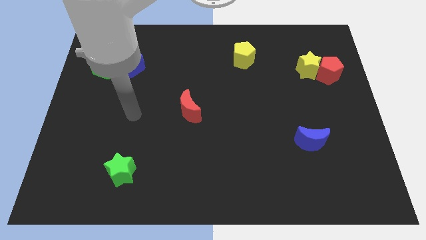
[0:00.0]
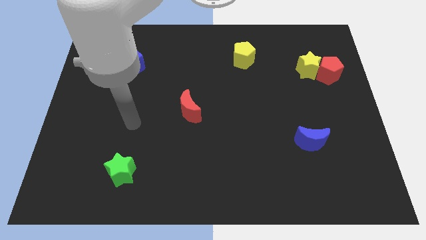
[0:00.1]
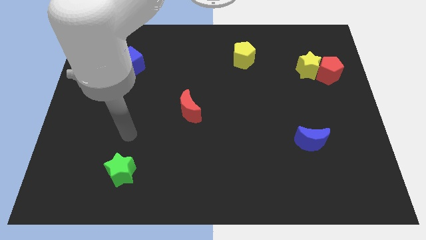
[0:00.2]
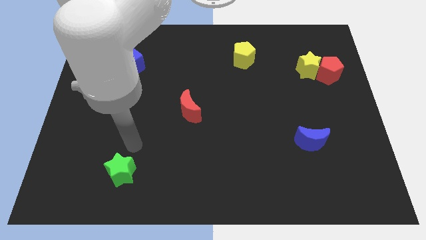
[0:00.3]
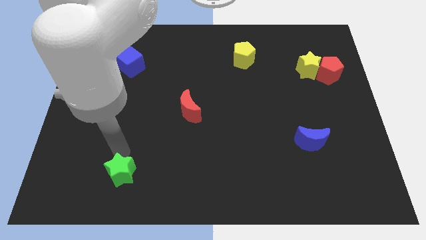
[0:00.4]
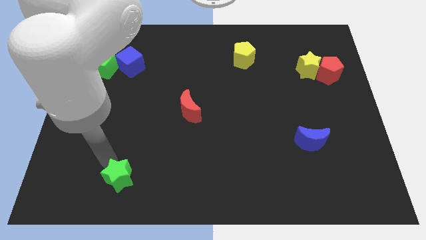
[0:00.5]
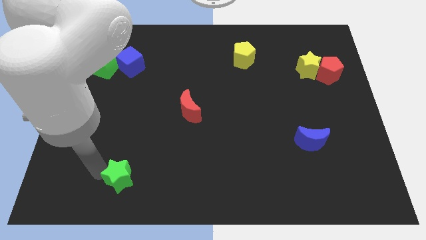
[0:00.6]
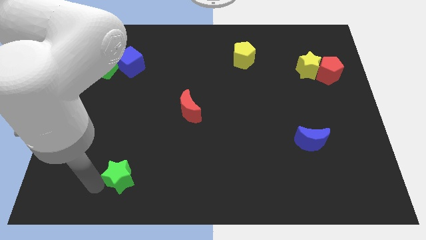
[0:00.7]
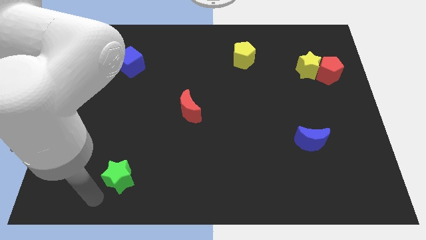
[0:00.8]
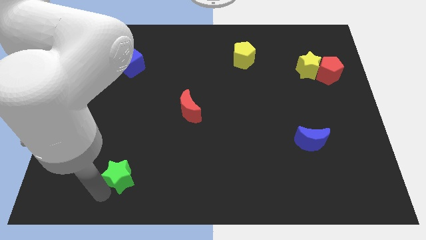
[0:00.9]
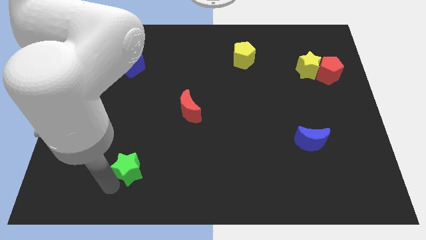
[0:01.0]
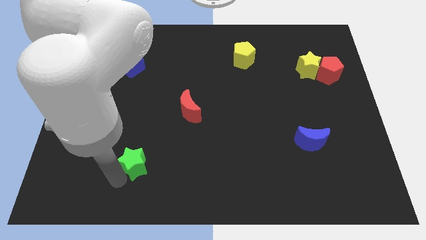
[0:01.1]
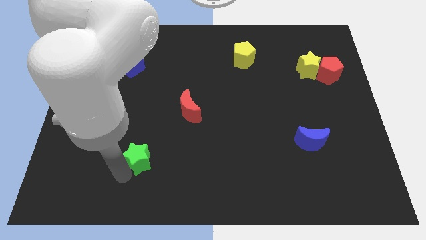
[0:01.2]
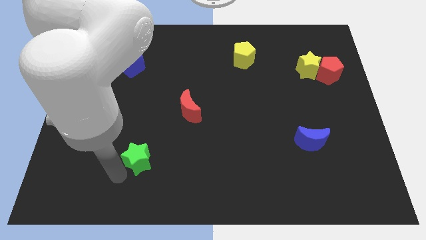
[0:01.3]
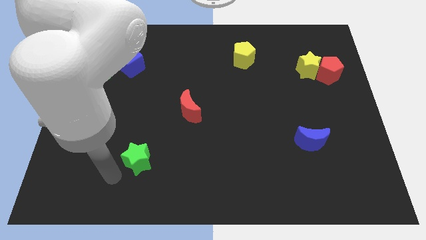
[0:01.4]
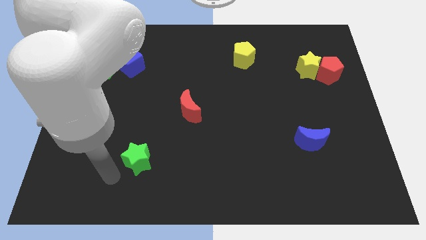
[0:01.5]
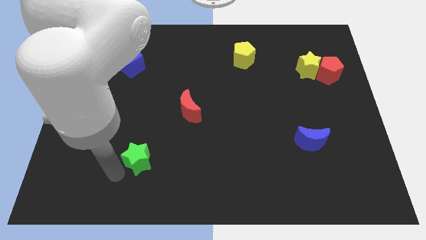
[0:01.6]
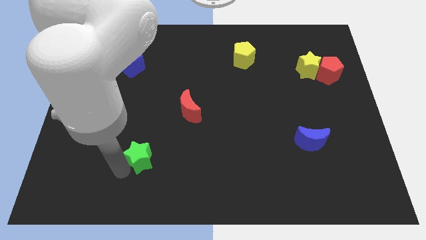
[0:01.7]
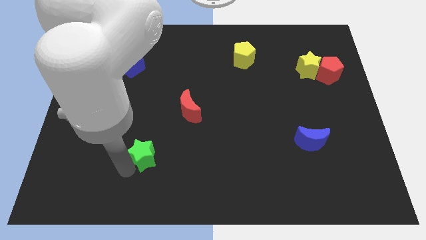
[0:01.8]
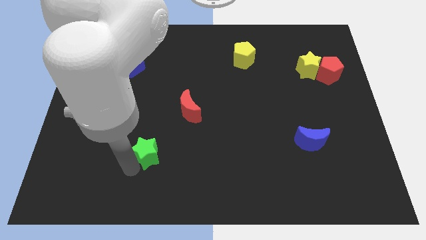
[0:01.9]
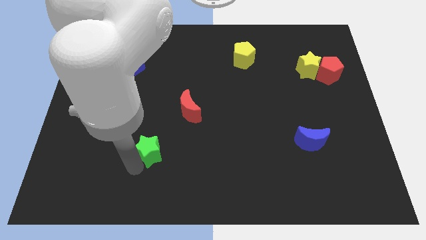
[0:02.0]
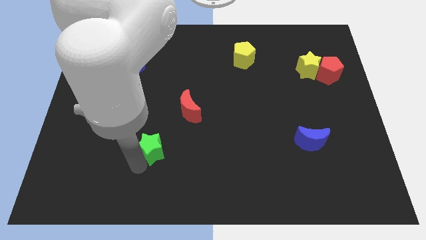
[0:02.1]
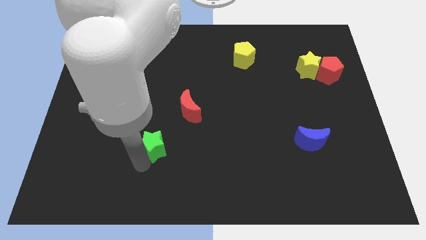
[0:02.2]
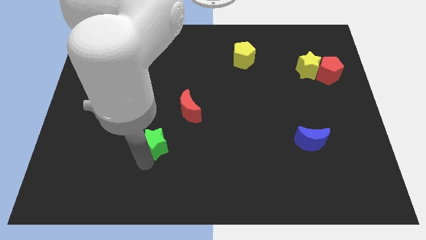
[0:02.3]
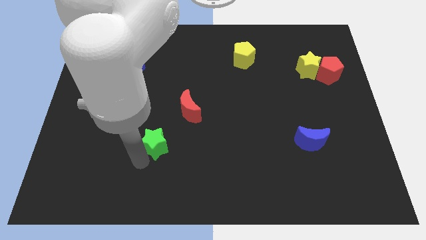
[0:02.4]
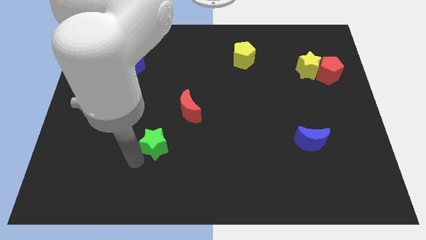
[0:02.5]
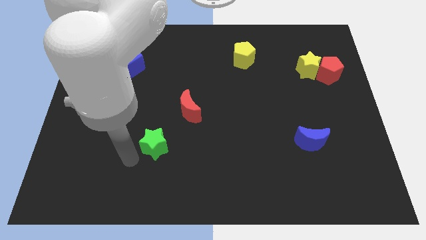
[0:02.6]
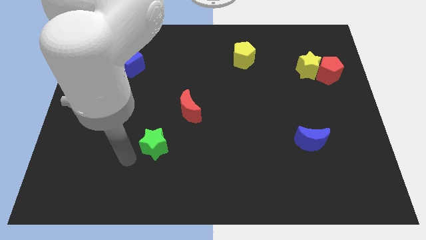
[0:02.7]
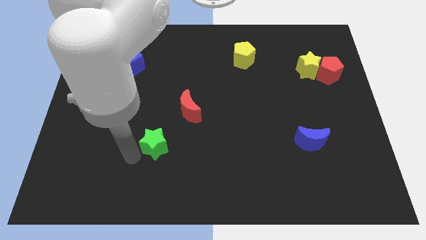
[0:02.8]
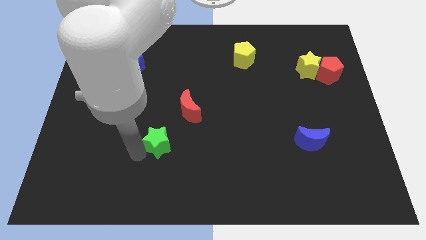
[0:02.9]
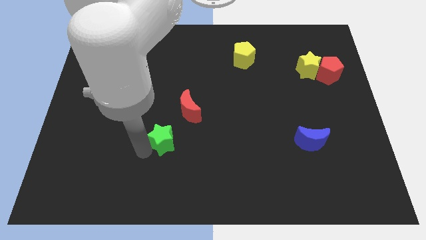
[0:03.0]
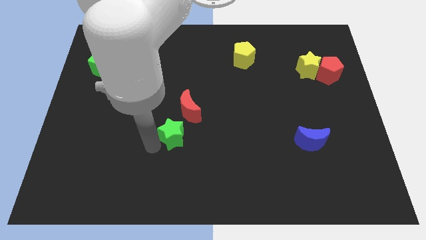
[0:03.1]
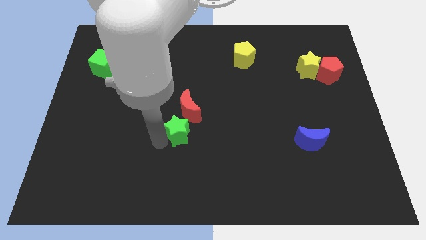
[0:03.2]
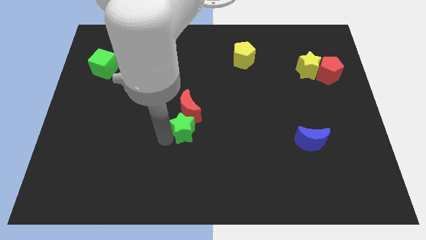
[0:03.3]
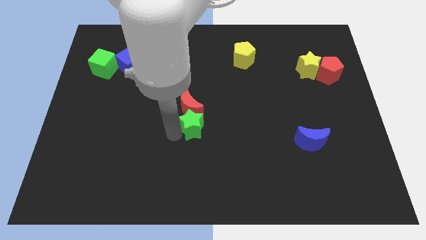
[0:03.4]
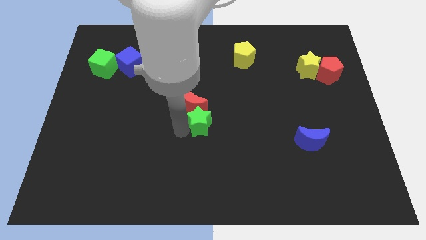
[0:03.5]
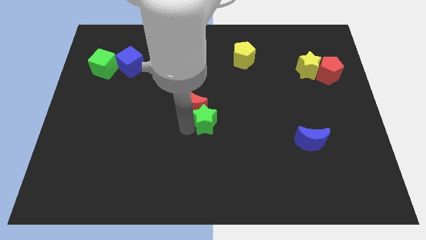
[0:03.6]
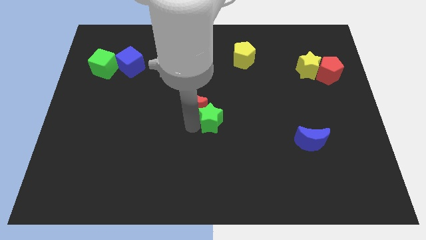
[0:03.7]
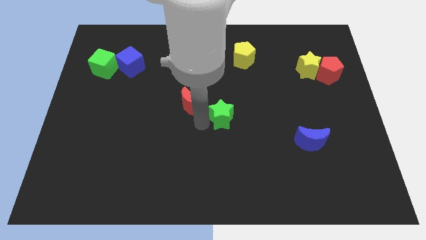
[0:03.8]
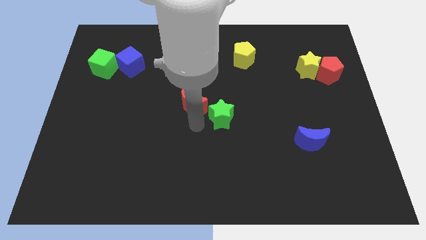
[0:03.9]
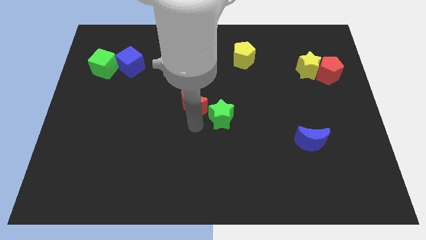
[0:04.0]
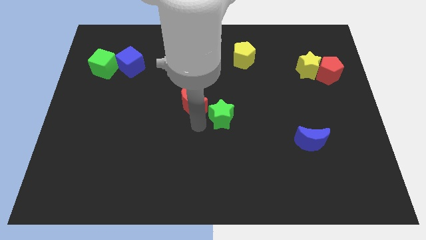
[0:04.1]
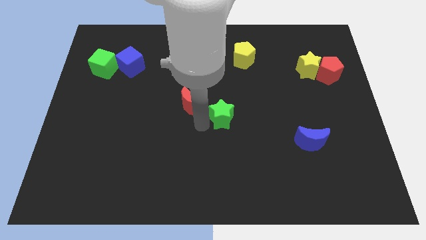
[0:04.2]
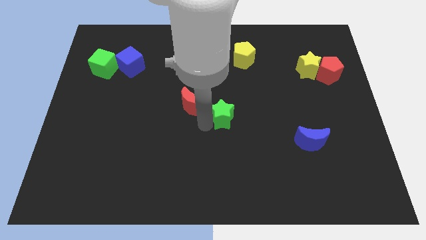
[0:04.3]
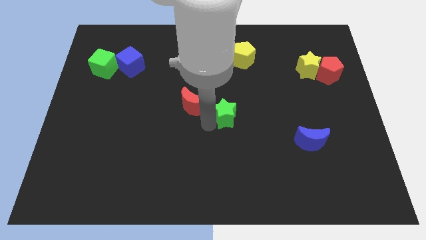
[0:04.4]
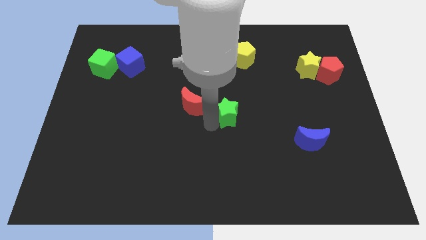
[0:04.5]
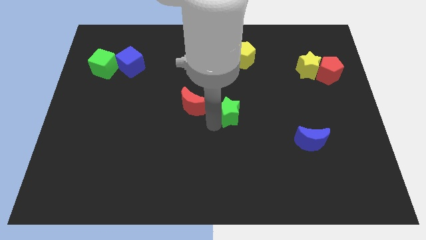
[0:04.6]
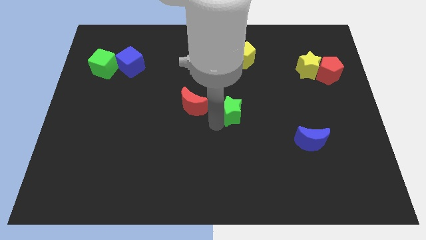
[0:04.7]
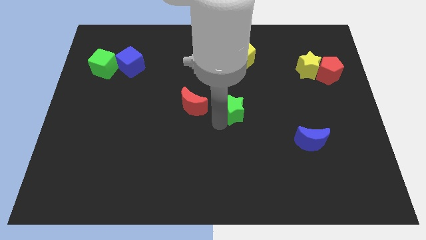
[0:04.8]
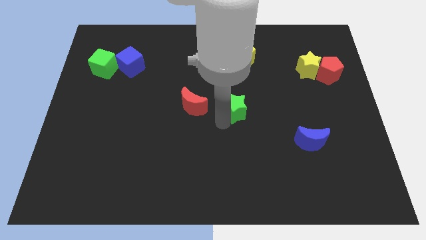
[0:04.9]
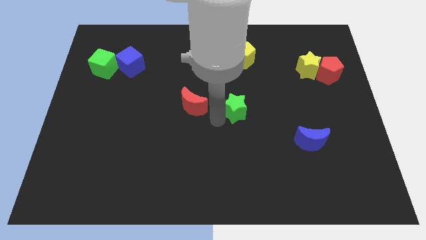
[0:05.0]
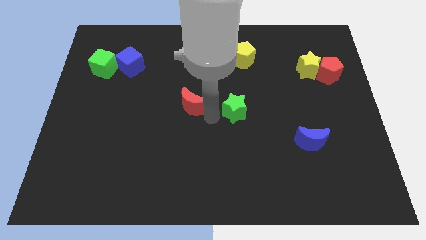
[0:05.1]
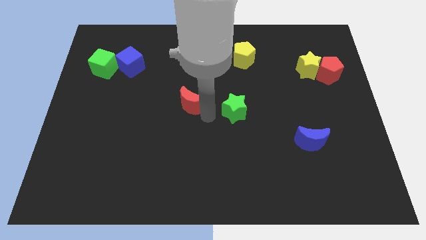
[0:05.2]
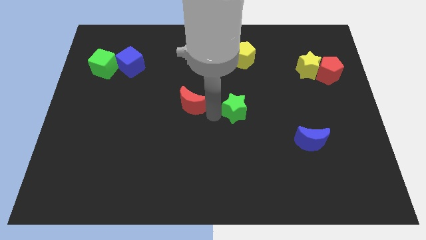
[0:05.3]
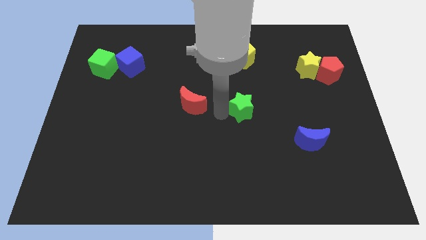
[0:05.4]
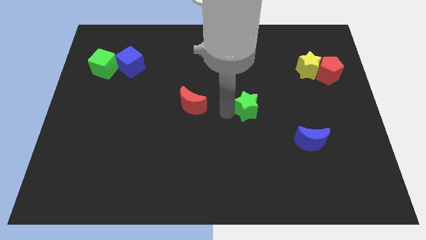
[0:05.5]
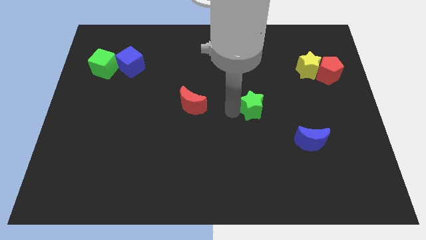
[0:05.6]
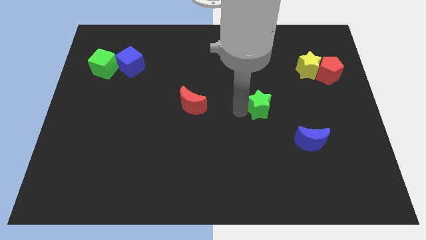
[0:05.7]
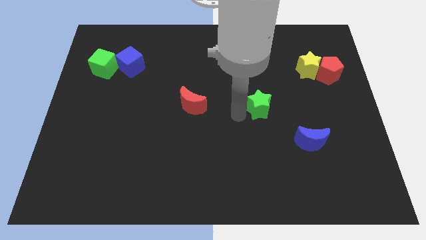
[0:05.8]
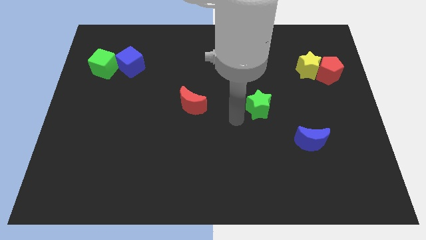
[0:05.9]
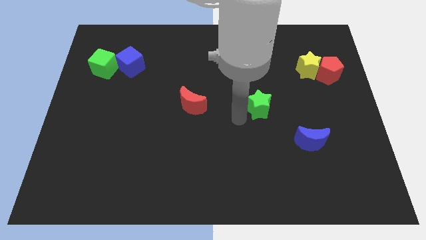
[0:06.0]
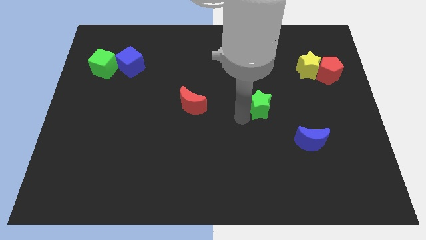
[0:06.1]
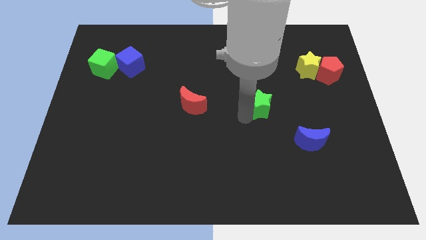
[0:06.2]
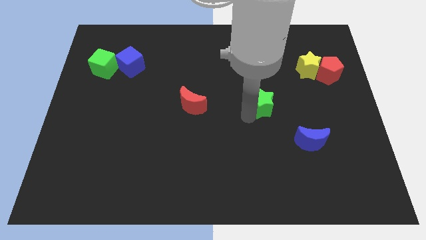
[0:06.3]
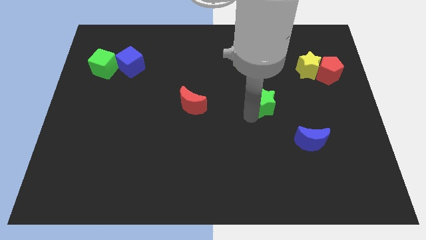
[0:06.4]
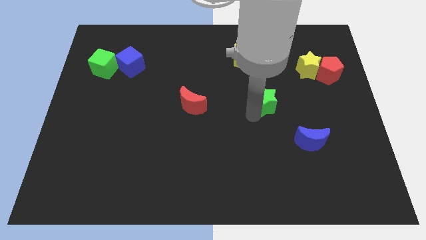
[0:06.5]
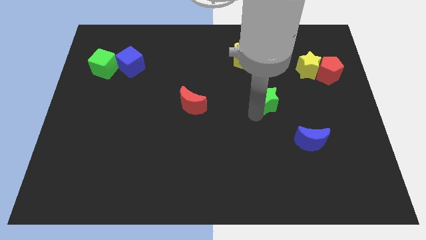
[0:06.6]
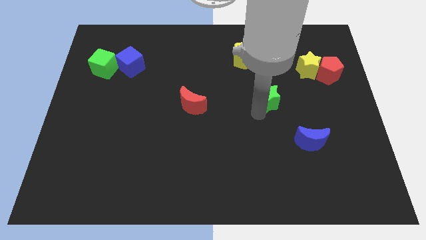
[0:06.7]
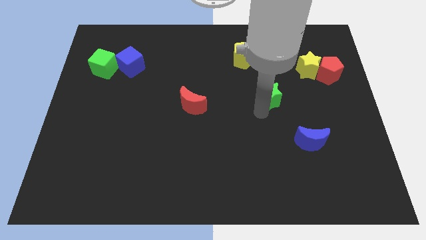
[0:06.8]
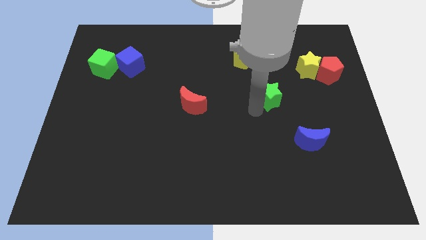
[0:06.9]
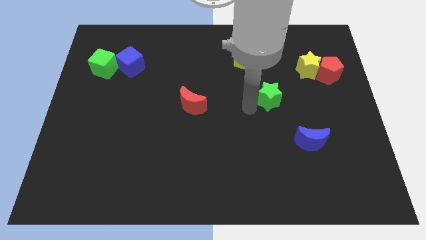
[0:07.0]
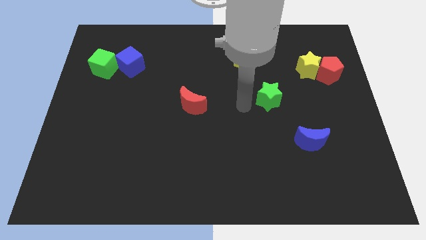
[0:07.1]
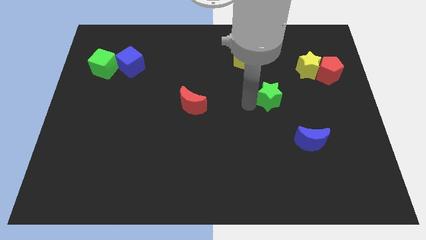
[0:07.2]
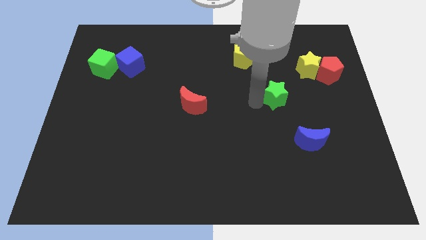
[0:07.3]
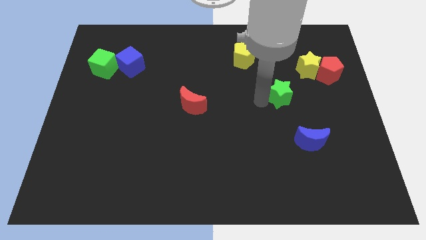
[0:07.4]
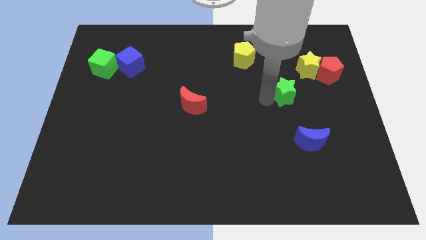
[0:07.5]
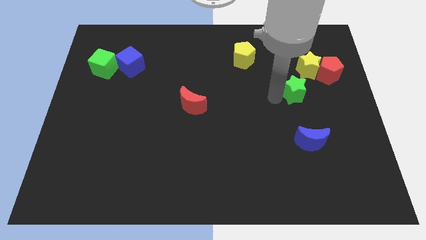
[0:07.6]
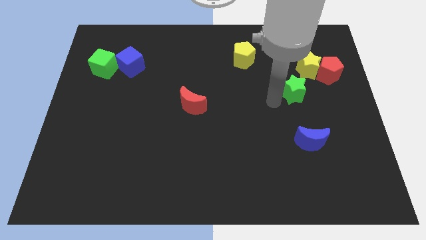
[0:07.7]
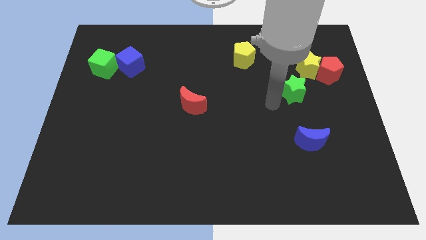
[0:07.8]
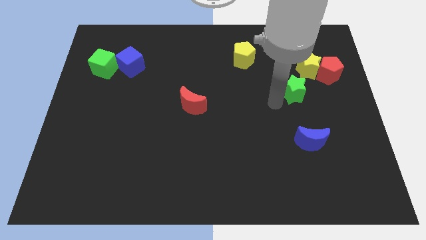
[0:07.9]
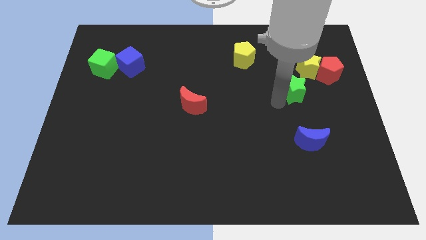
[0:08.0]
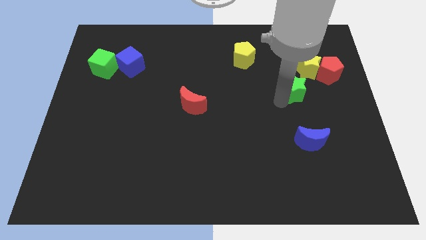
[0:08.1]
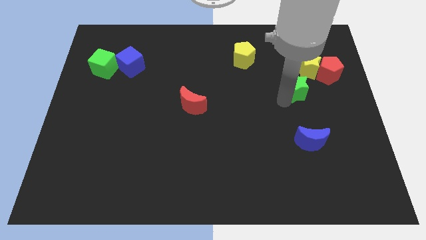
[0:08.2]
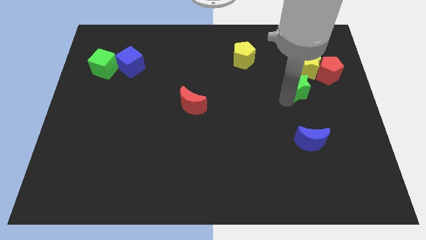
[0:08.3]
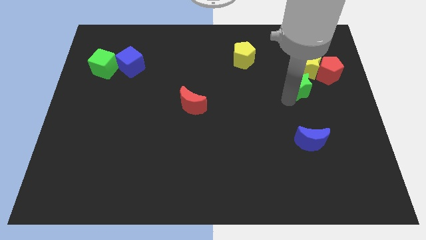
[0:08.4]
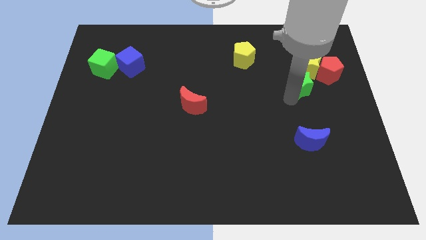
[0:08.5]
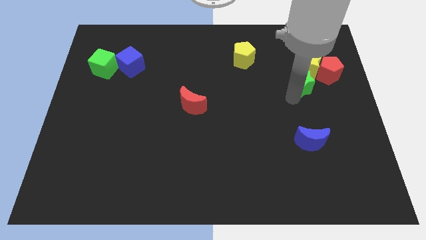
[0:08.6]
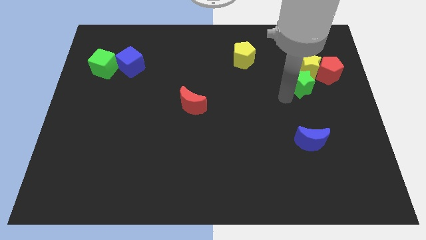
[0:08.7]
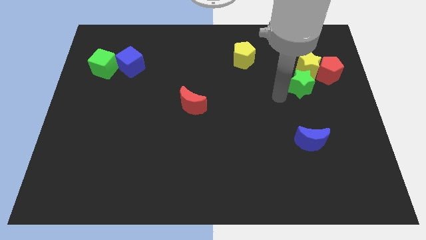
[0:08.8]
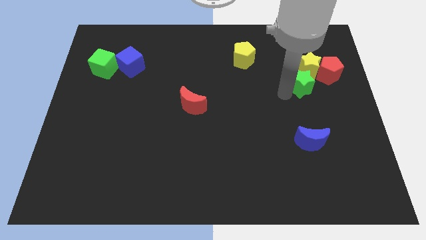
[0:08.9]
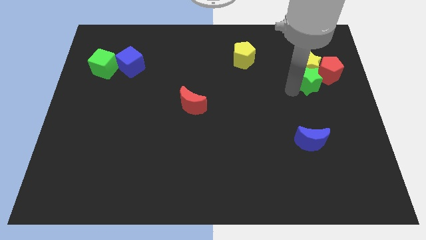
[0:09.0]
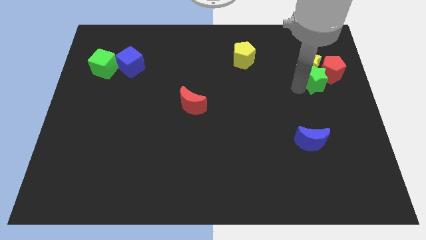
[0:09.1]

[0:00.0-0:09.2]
push the green star towards the red pentagon
